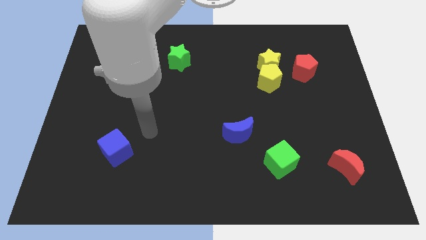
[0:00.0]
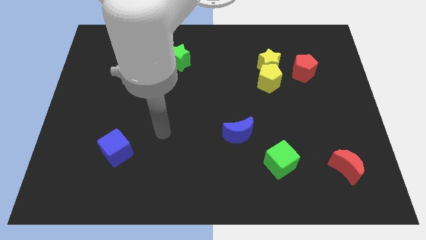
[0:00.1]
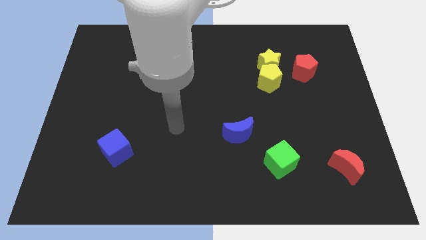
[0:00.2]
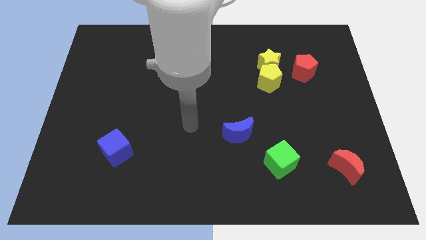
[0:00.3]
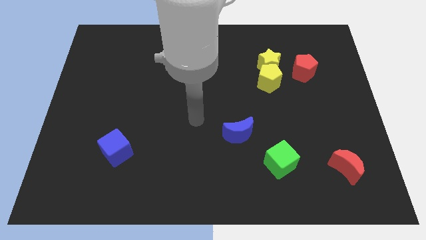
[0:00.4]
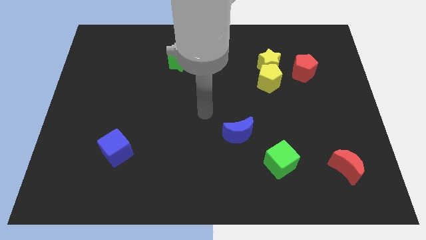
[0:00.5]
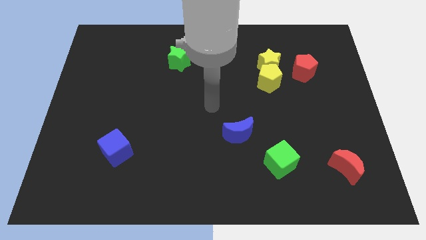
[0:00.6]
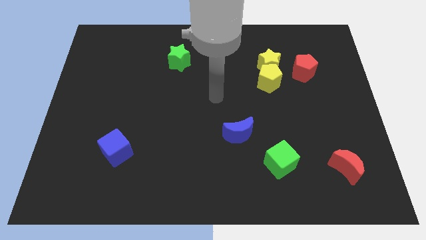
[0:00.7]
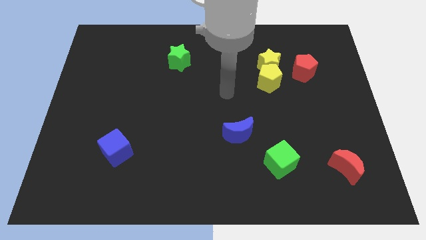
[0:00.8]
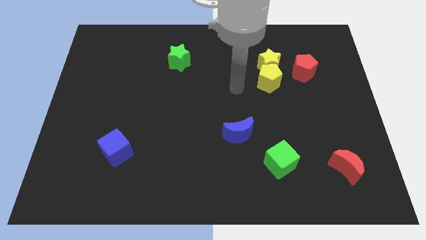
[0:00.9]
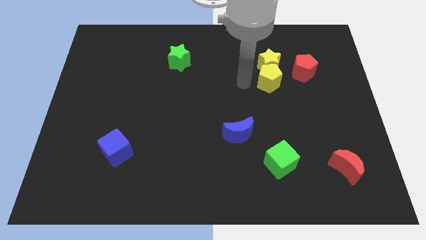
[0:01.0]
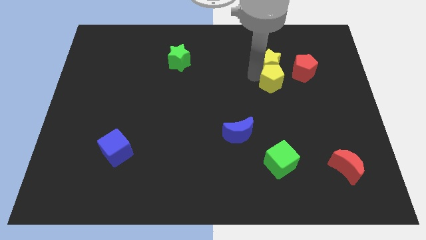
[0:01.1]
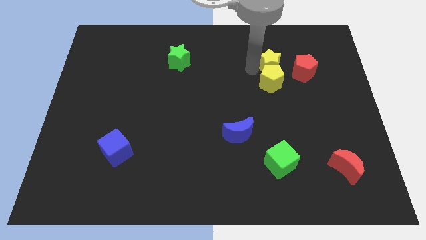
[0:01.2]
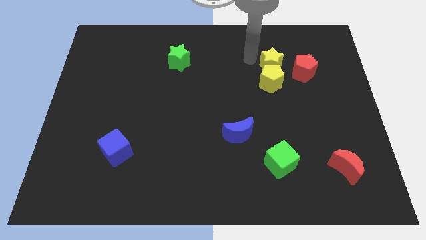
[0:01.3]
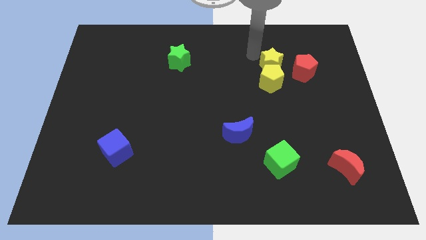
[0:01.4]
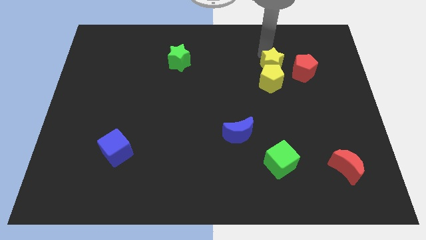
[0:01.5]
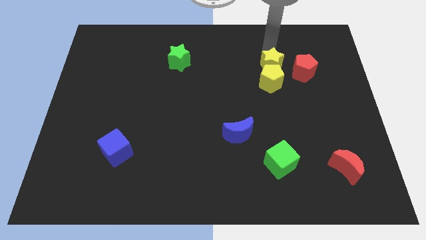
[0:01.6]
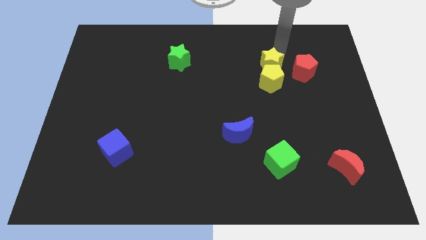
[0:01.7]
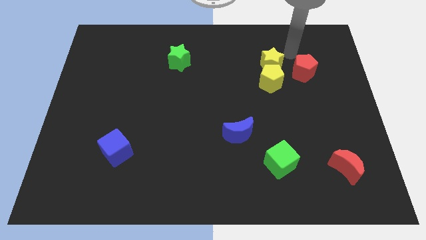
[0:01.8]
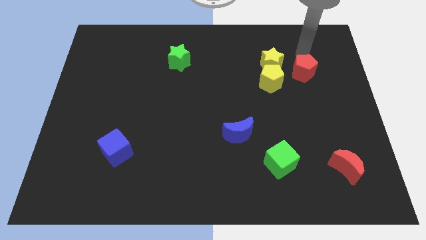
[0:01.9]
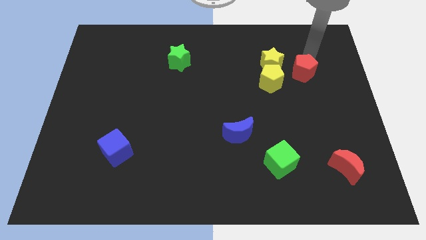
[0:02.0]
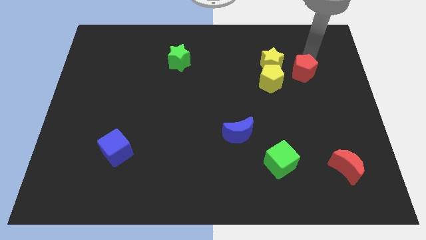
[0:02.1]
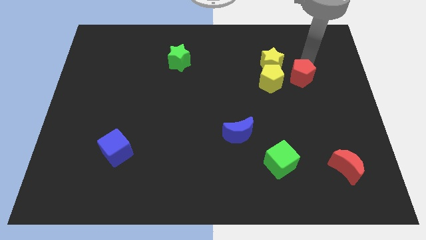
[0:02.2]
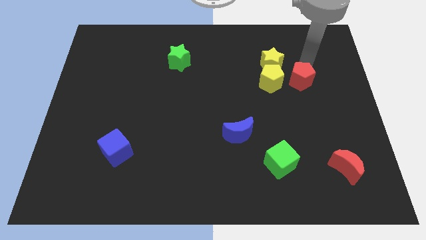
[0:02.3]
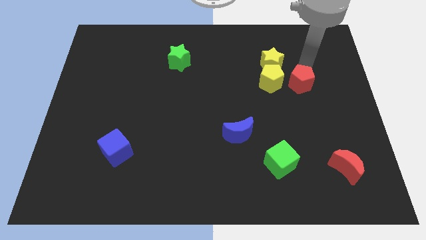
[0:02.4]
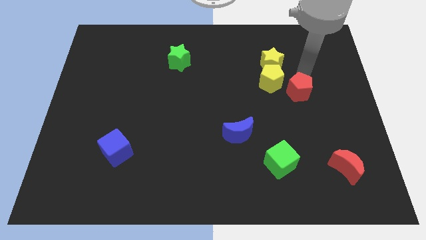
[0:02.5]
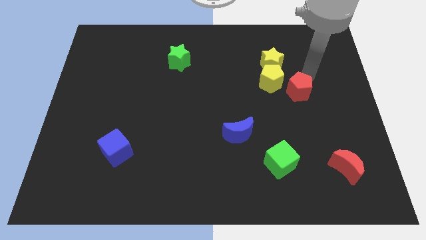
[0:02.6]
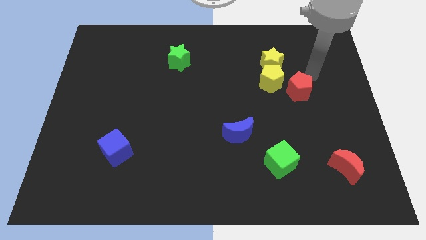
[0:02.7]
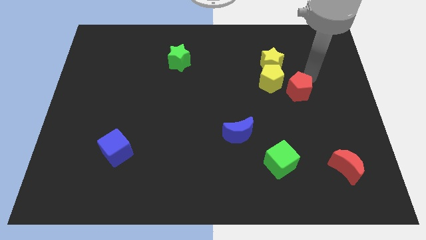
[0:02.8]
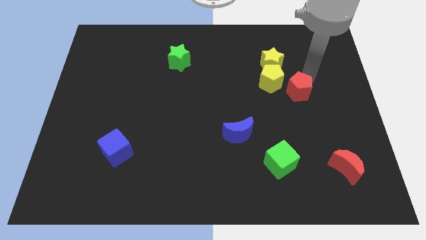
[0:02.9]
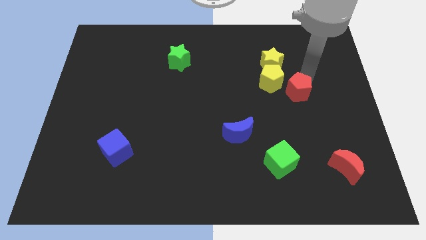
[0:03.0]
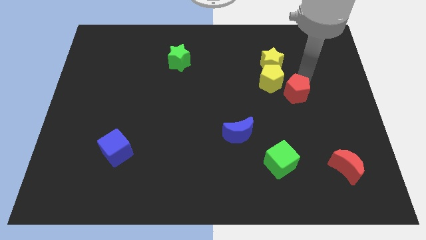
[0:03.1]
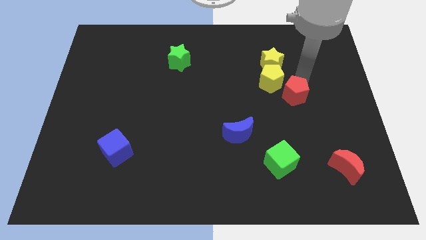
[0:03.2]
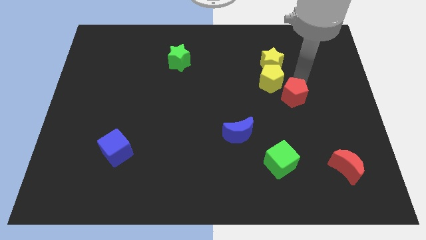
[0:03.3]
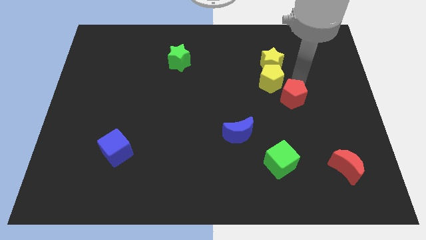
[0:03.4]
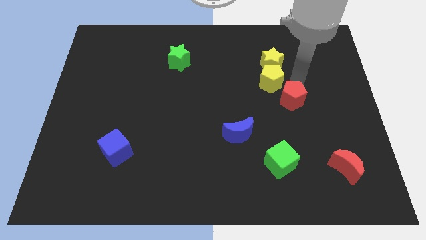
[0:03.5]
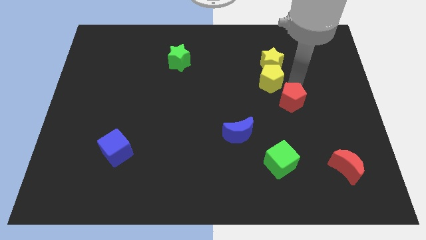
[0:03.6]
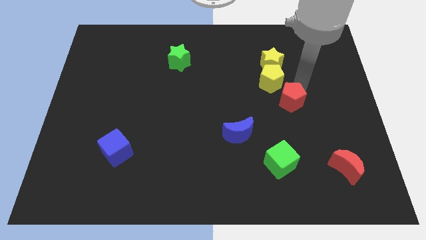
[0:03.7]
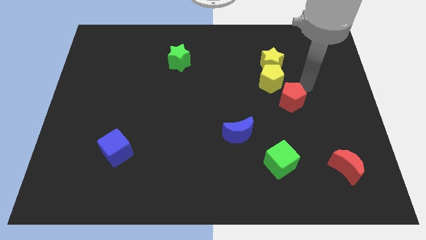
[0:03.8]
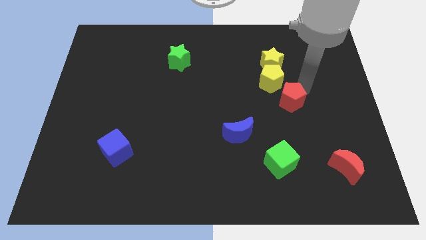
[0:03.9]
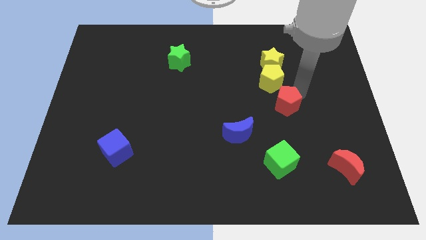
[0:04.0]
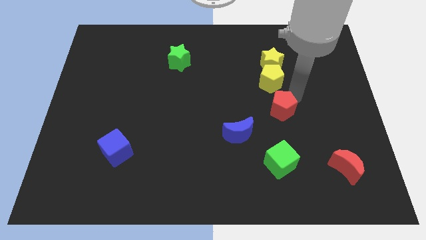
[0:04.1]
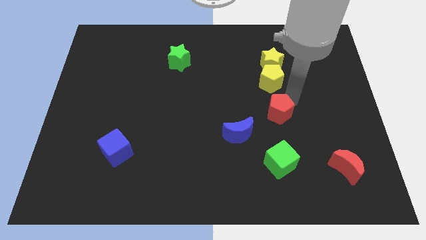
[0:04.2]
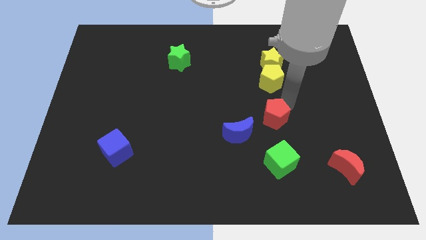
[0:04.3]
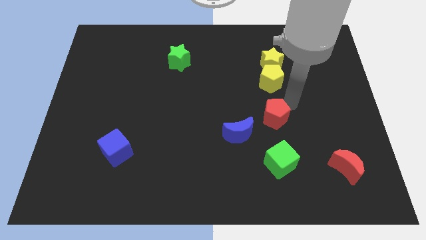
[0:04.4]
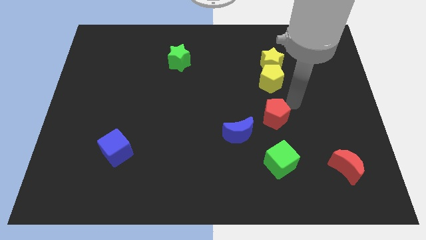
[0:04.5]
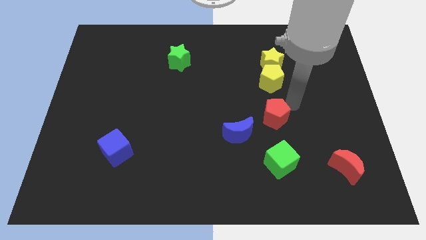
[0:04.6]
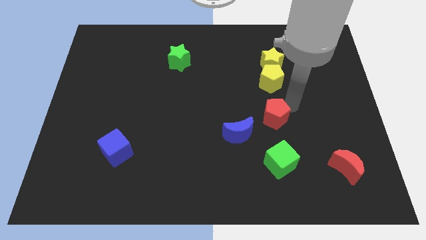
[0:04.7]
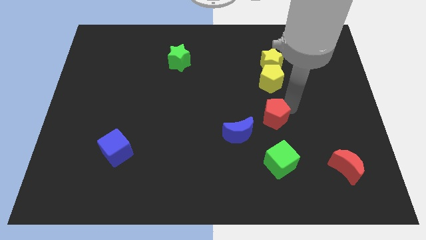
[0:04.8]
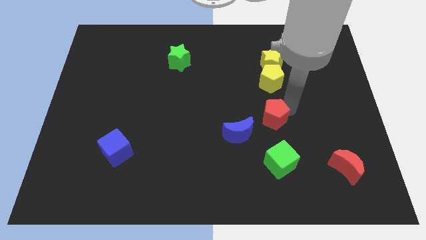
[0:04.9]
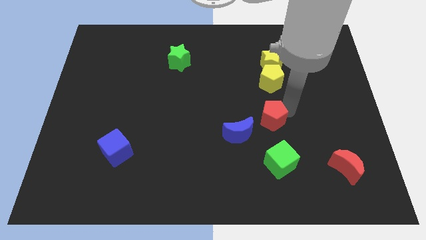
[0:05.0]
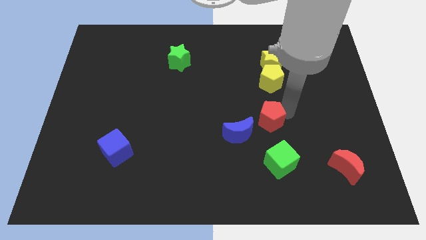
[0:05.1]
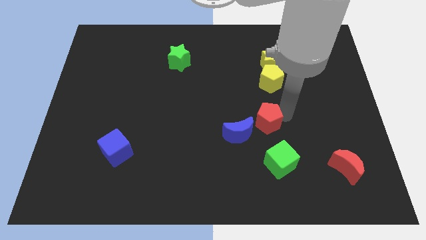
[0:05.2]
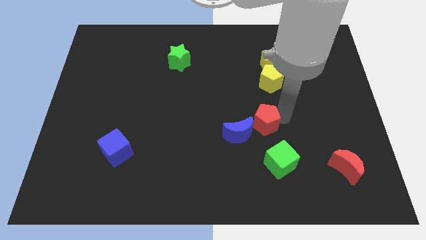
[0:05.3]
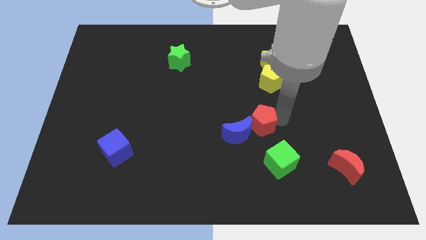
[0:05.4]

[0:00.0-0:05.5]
put the red pentagon next to the blue moon

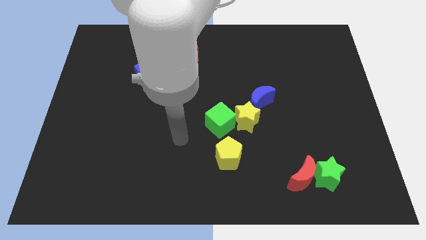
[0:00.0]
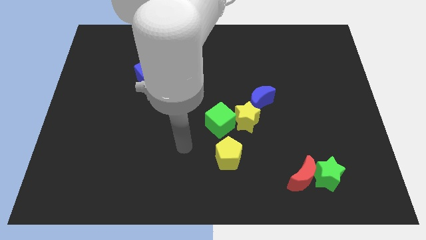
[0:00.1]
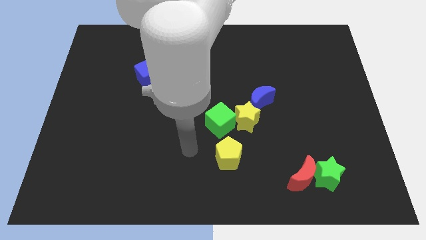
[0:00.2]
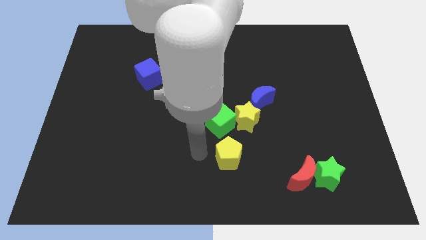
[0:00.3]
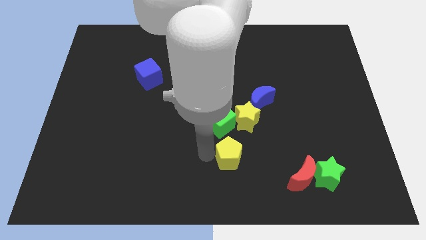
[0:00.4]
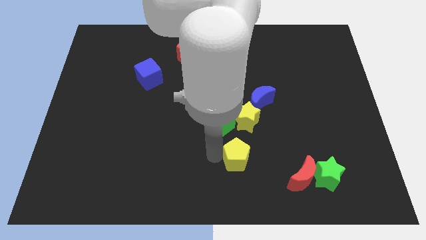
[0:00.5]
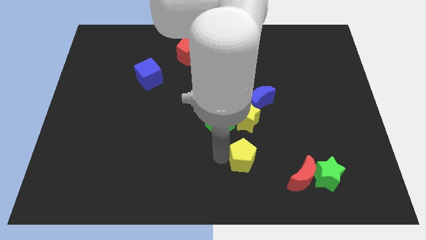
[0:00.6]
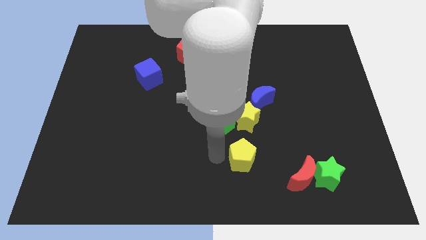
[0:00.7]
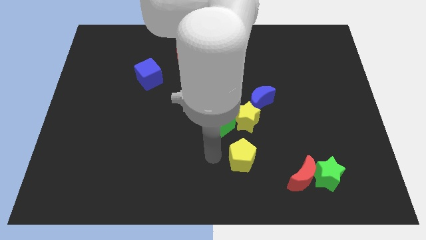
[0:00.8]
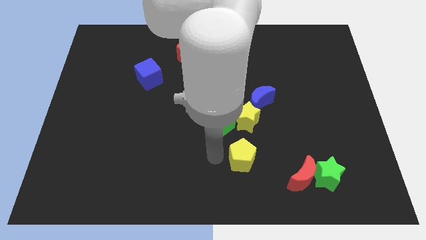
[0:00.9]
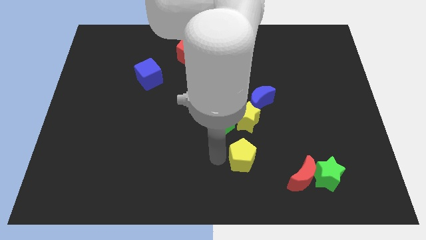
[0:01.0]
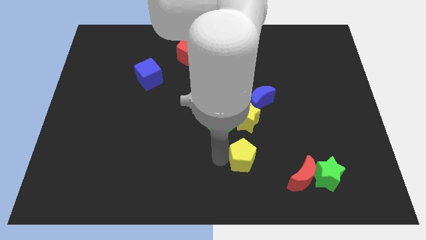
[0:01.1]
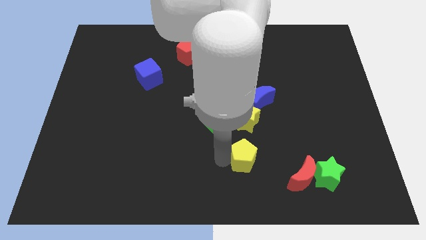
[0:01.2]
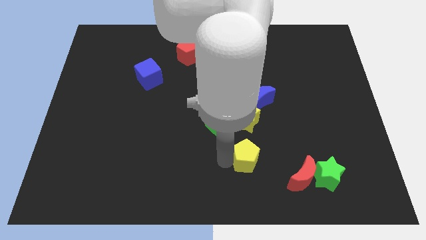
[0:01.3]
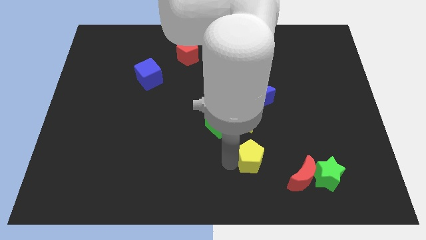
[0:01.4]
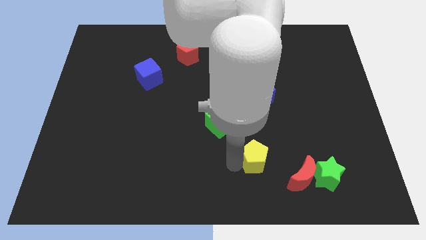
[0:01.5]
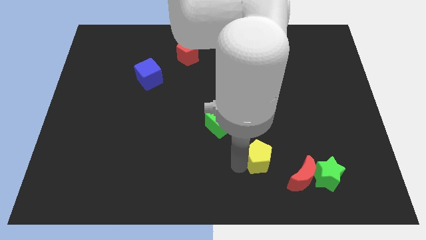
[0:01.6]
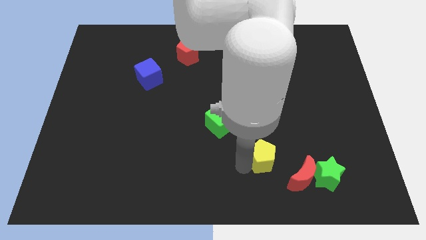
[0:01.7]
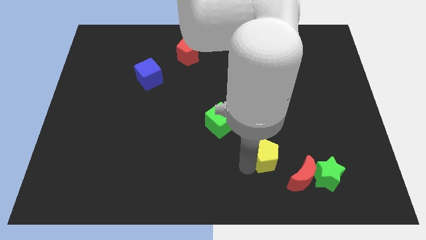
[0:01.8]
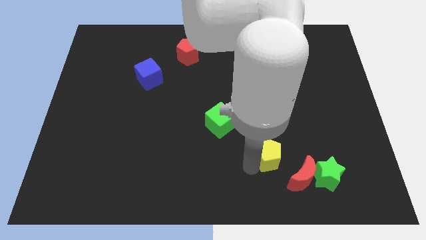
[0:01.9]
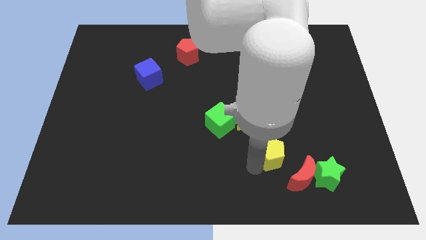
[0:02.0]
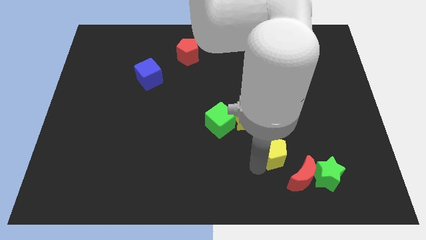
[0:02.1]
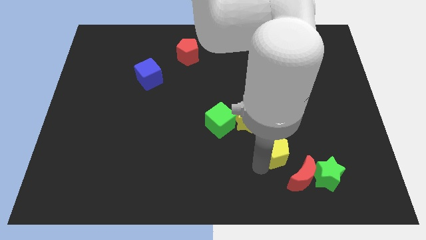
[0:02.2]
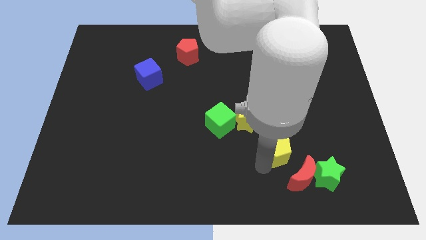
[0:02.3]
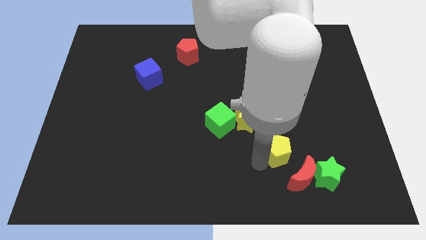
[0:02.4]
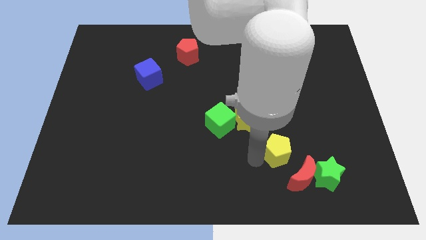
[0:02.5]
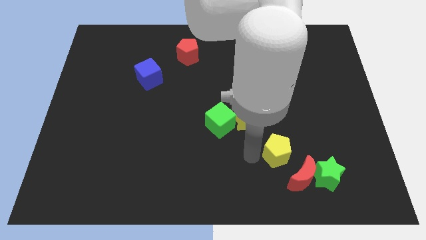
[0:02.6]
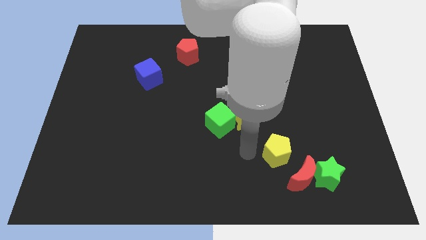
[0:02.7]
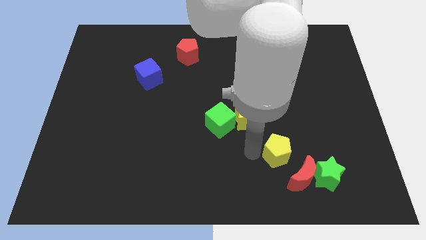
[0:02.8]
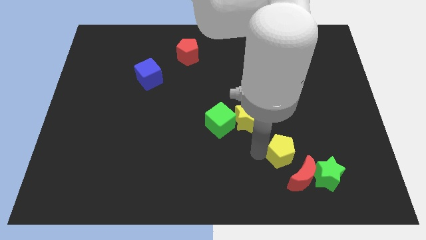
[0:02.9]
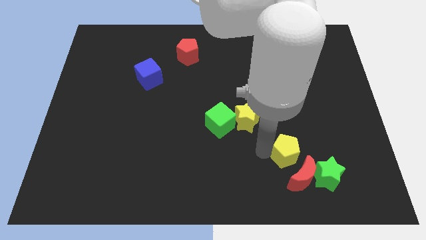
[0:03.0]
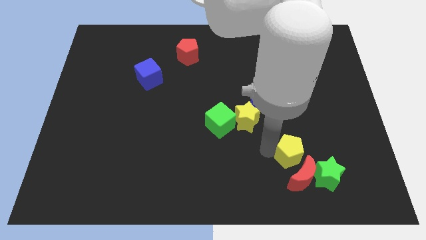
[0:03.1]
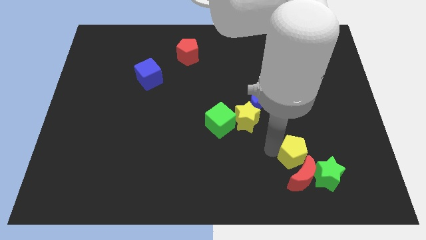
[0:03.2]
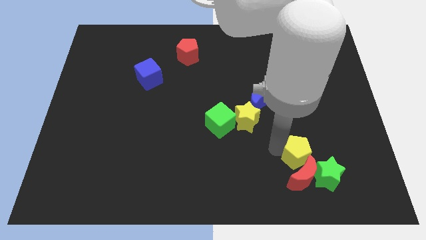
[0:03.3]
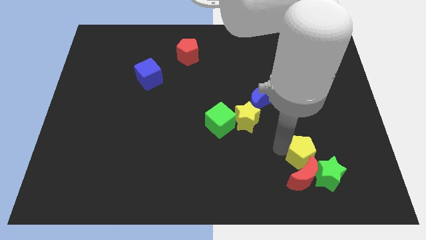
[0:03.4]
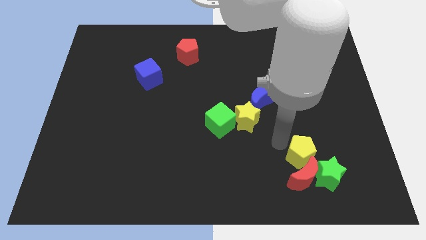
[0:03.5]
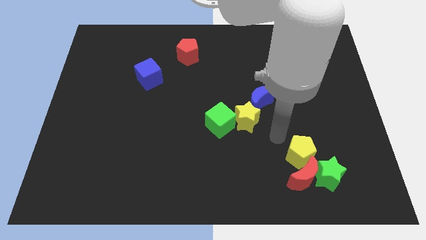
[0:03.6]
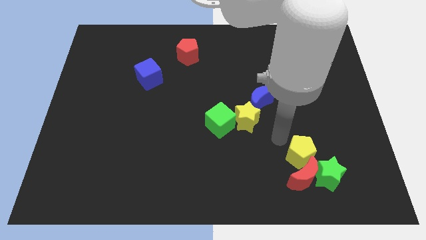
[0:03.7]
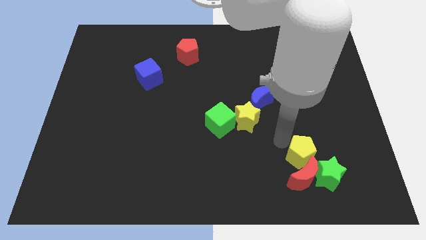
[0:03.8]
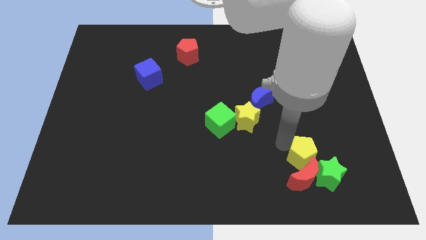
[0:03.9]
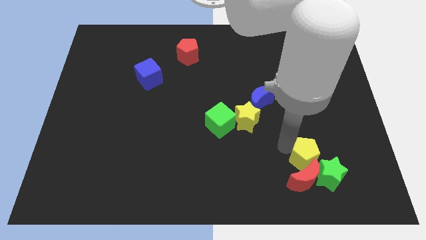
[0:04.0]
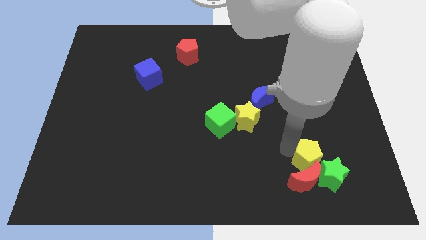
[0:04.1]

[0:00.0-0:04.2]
push the yellow pentagon towards the green star
